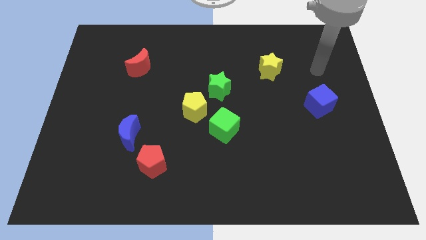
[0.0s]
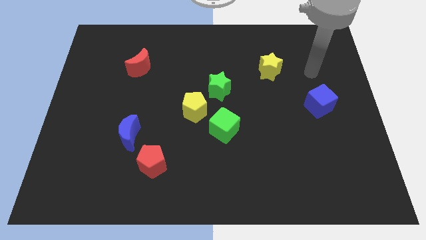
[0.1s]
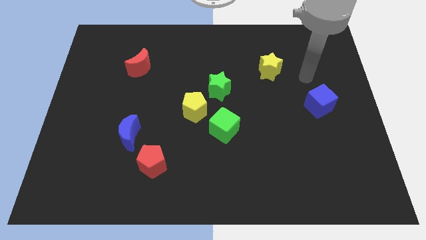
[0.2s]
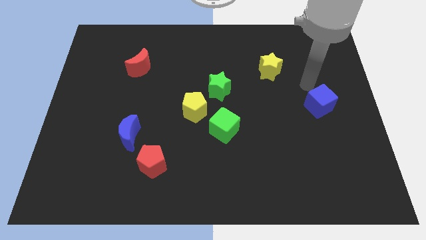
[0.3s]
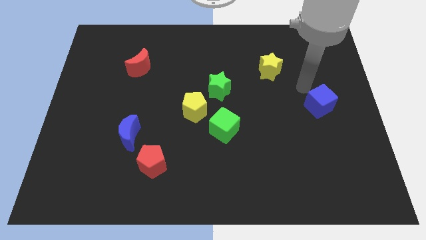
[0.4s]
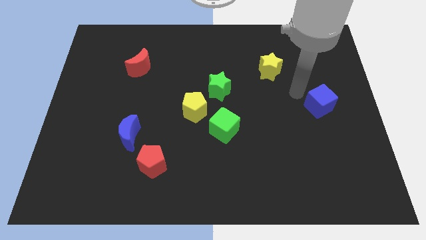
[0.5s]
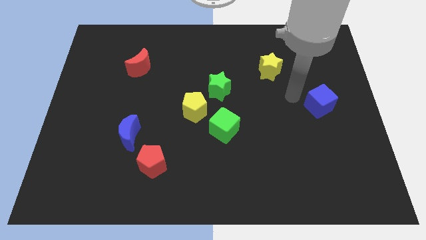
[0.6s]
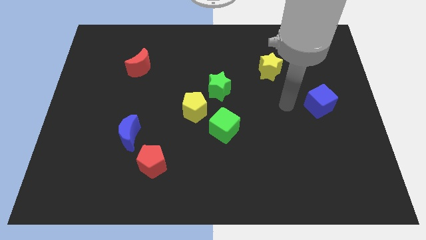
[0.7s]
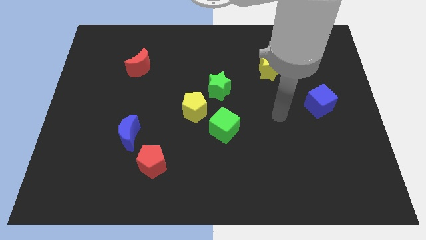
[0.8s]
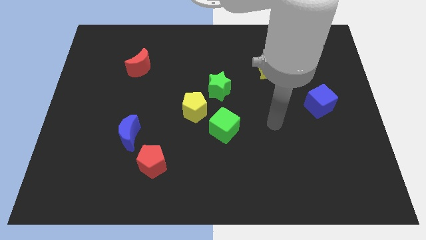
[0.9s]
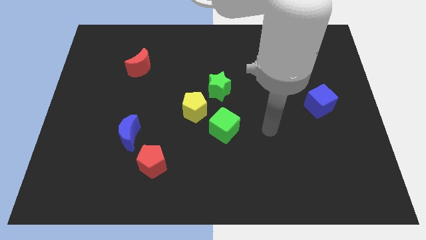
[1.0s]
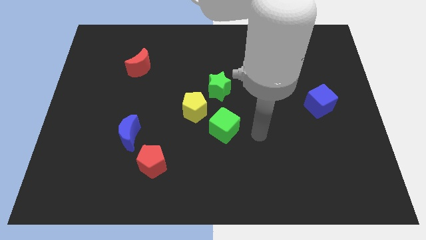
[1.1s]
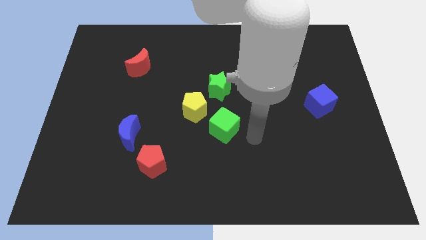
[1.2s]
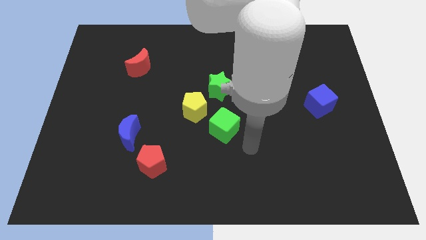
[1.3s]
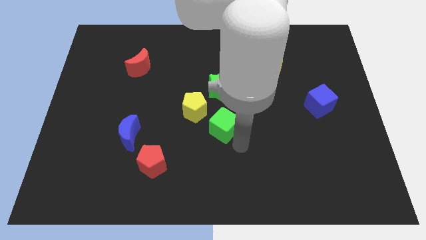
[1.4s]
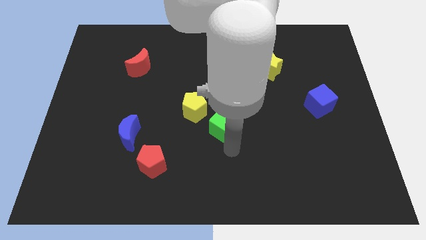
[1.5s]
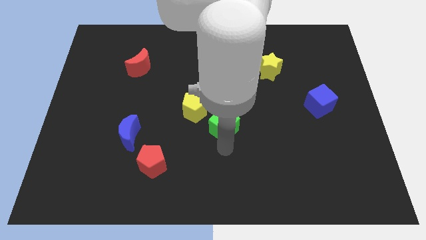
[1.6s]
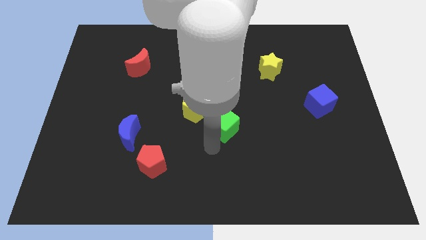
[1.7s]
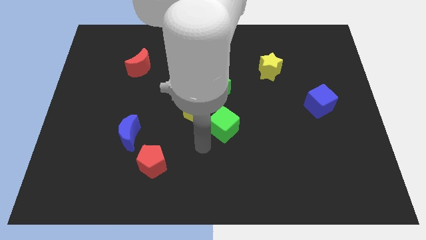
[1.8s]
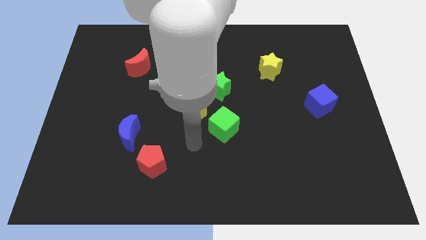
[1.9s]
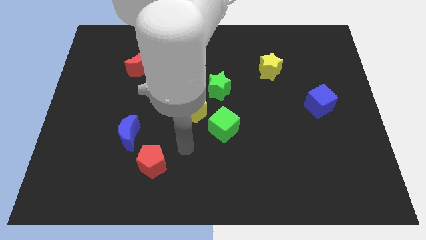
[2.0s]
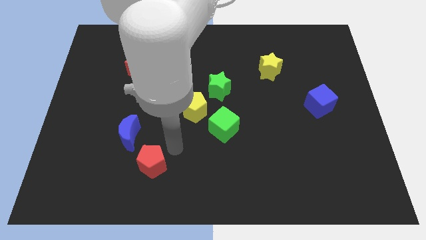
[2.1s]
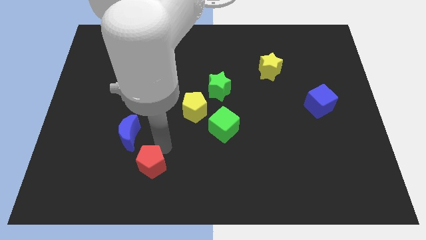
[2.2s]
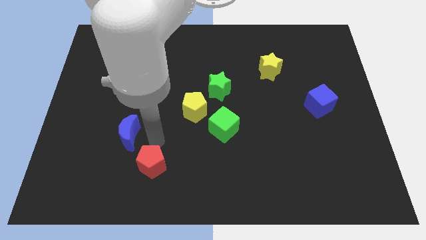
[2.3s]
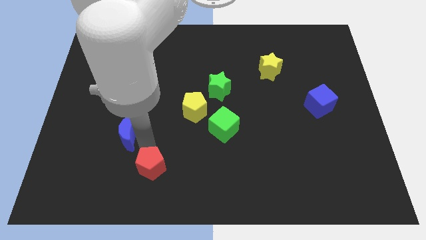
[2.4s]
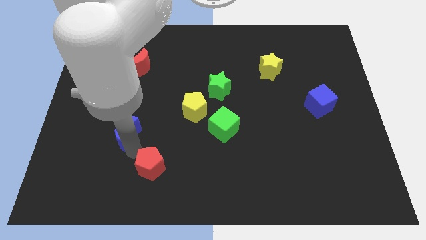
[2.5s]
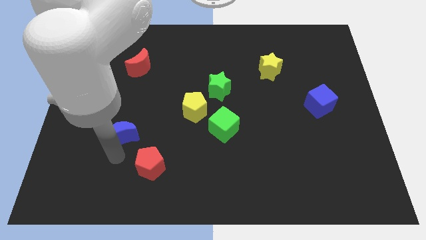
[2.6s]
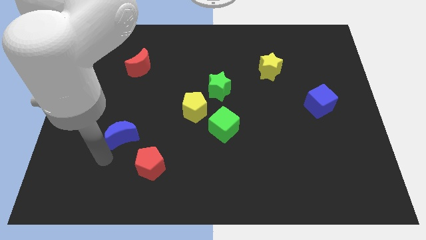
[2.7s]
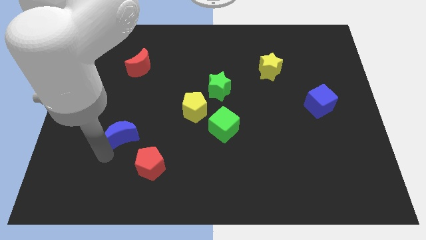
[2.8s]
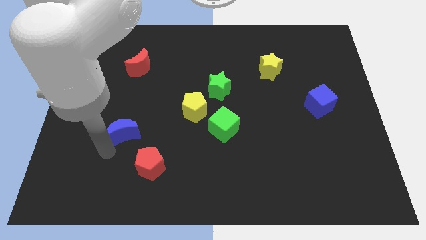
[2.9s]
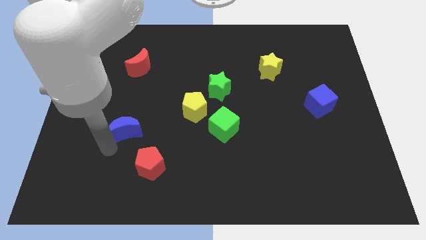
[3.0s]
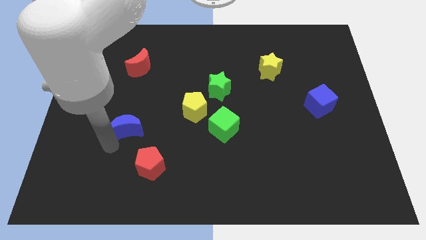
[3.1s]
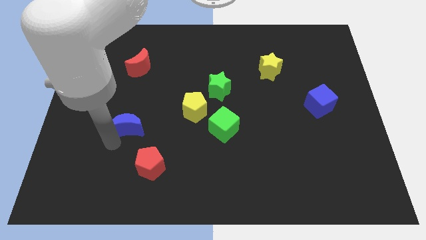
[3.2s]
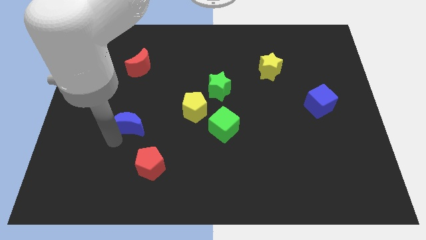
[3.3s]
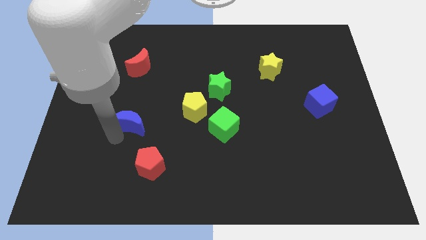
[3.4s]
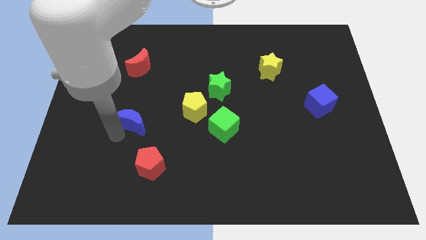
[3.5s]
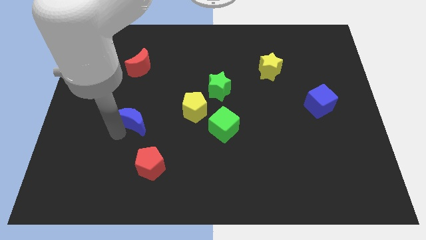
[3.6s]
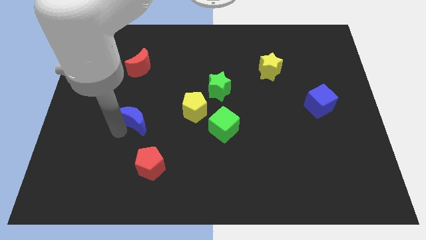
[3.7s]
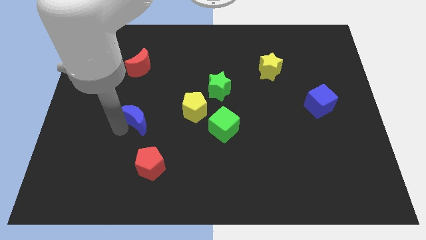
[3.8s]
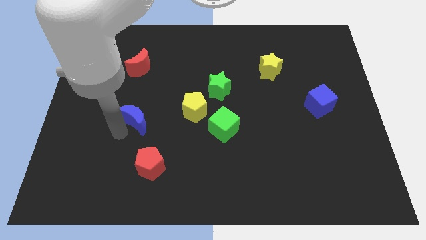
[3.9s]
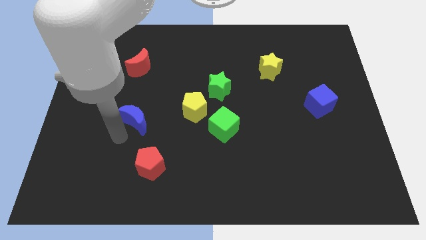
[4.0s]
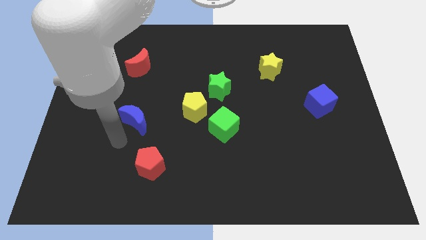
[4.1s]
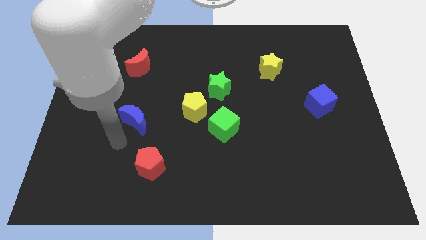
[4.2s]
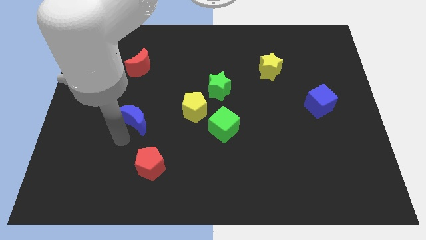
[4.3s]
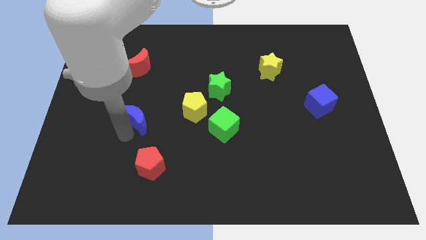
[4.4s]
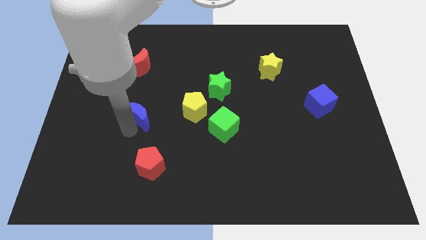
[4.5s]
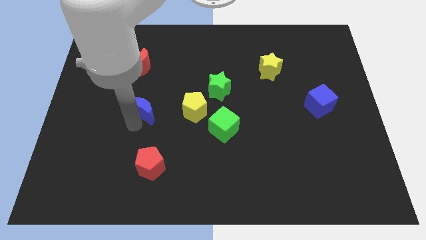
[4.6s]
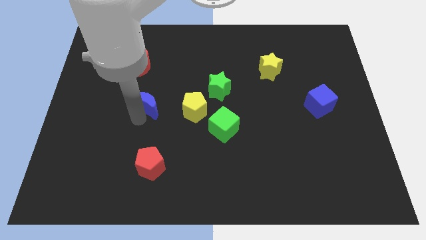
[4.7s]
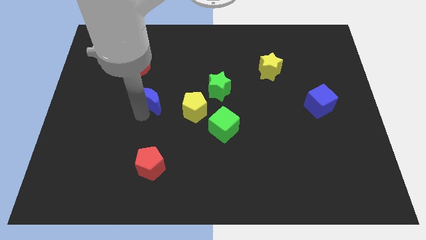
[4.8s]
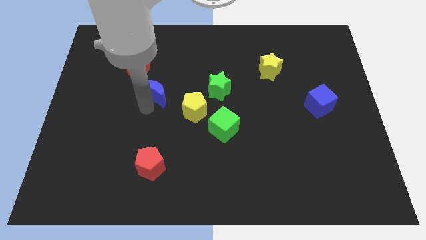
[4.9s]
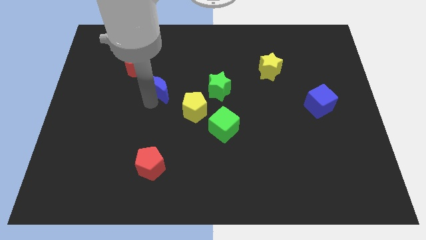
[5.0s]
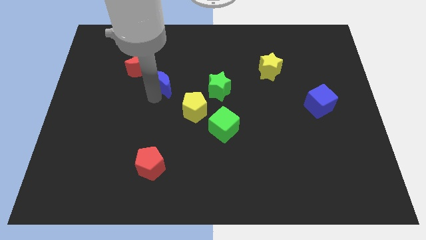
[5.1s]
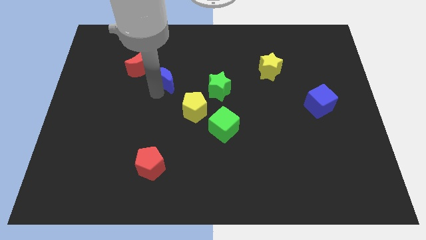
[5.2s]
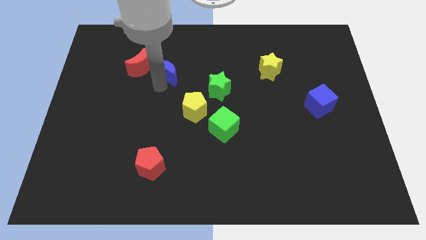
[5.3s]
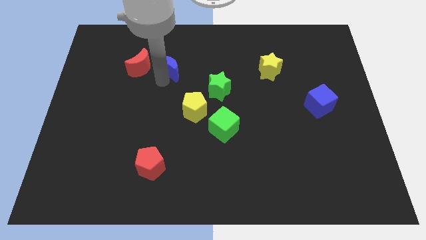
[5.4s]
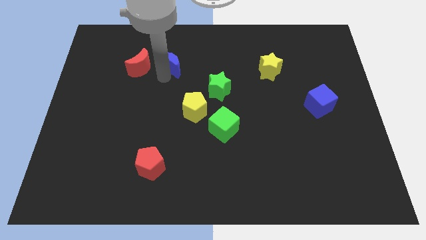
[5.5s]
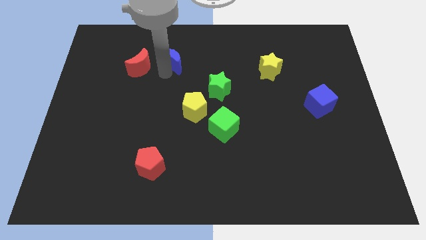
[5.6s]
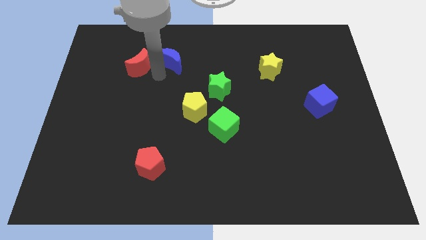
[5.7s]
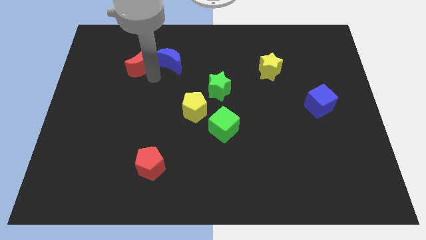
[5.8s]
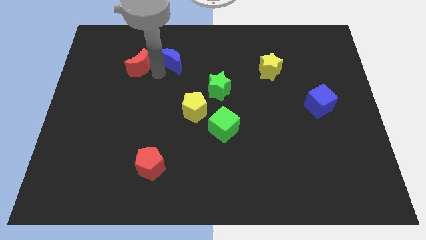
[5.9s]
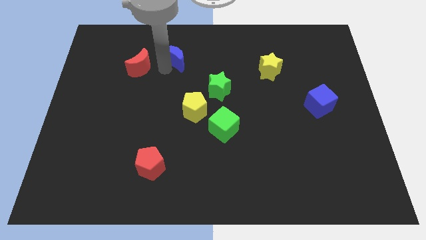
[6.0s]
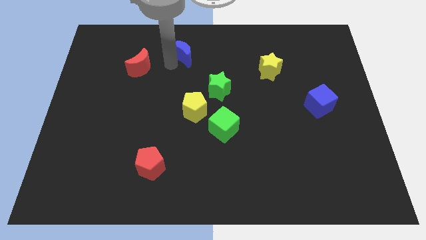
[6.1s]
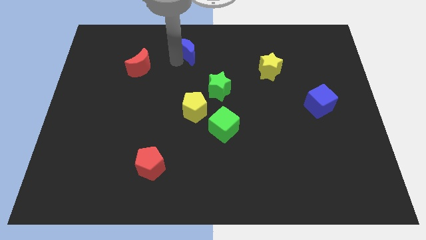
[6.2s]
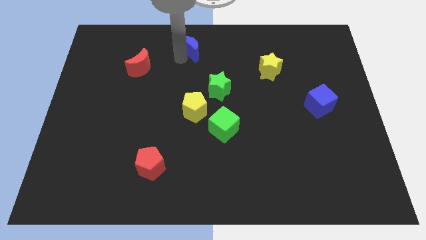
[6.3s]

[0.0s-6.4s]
put the blue moon to the top side
